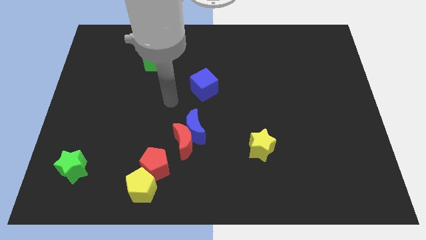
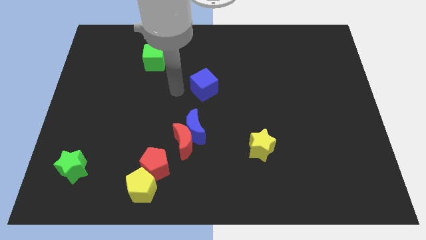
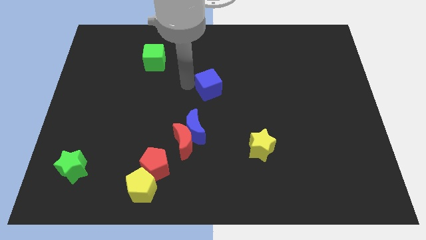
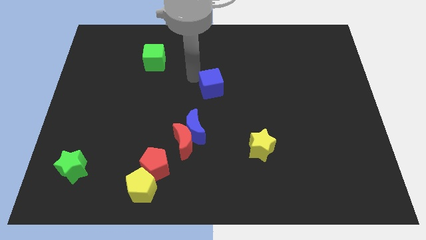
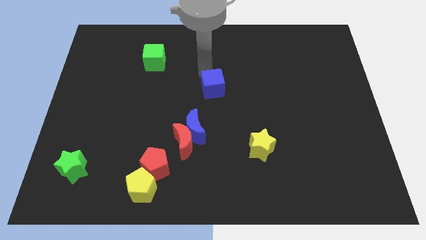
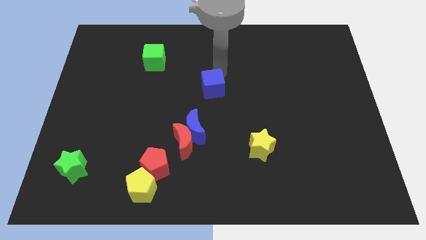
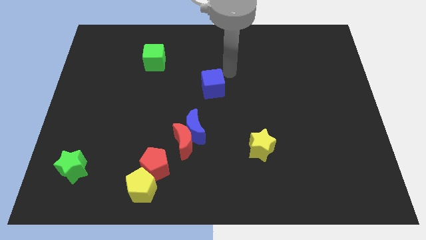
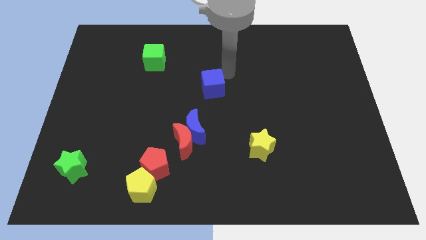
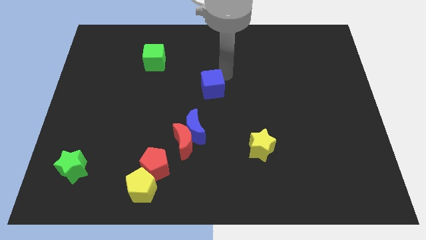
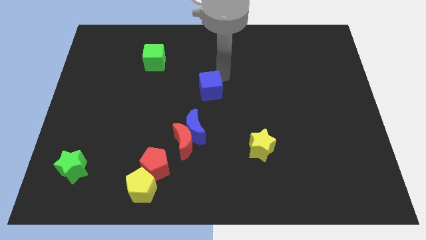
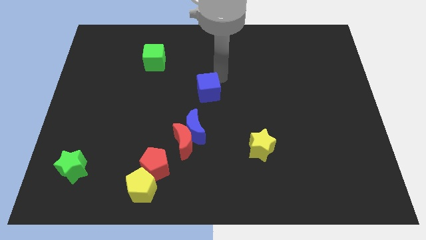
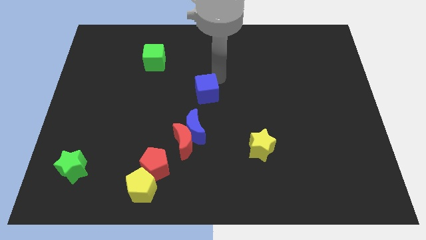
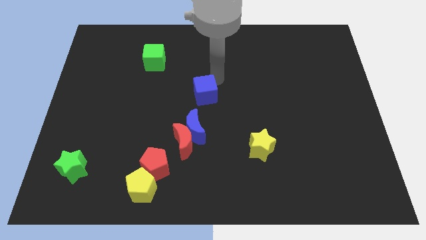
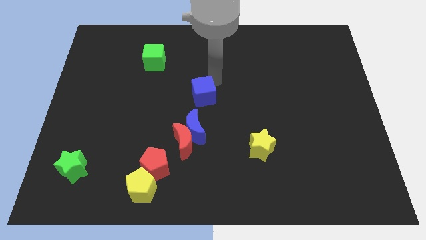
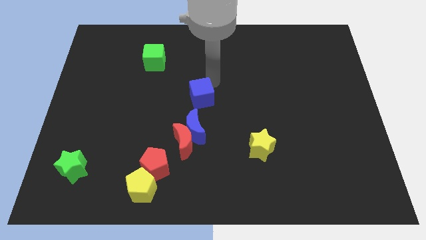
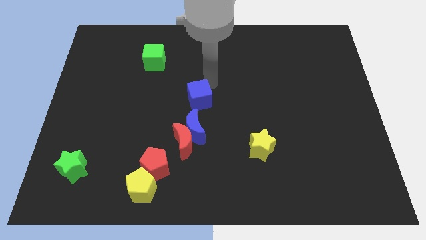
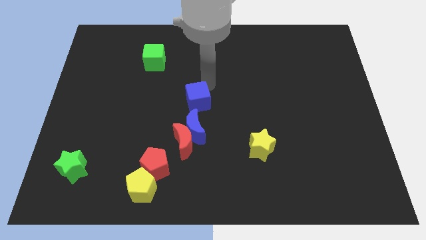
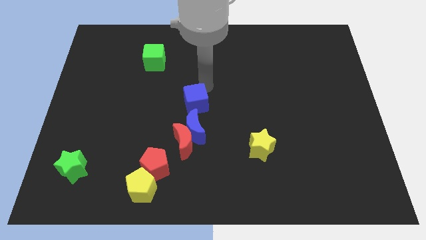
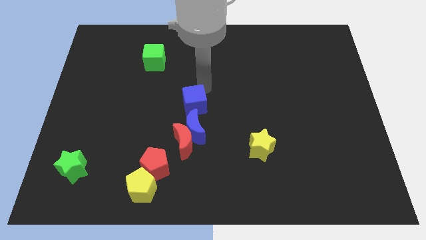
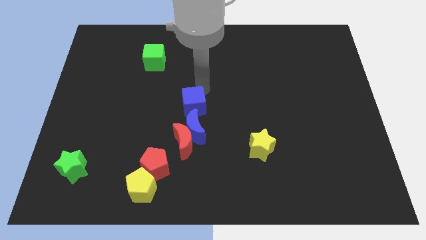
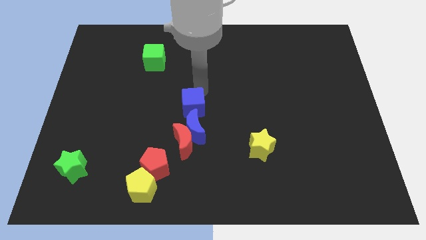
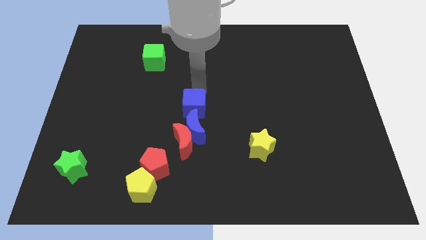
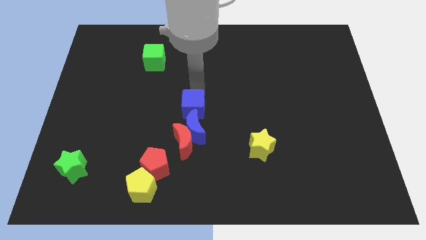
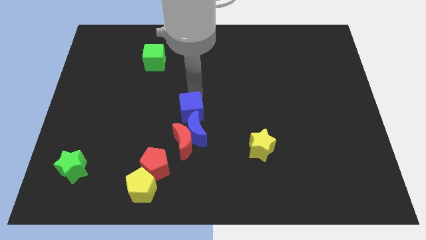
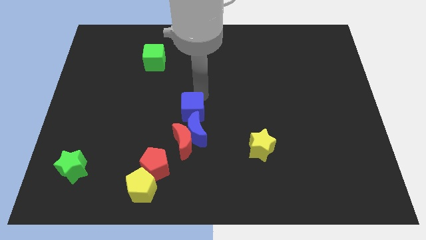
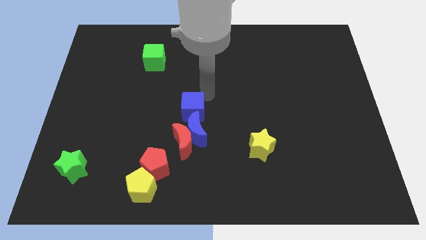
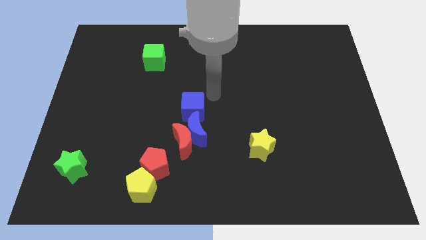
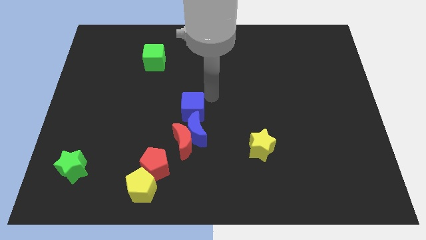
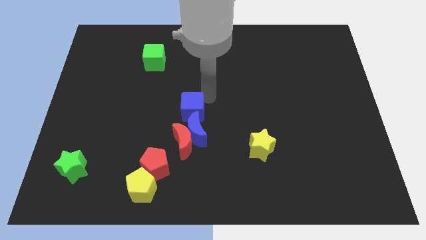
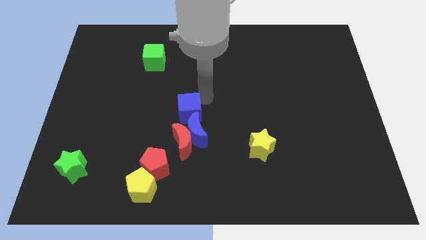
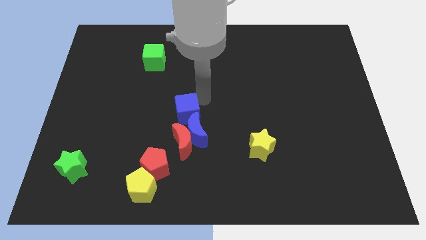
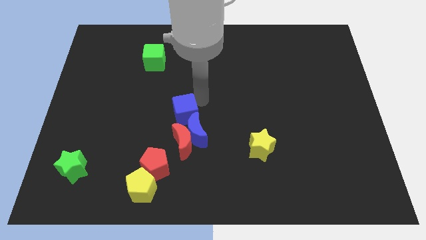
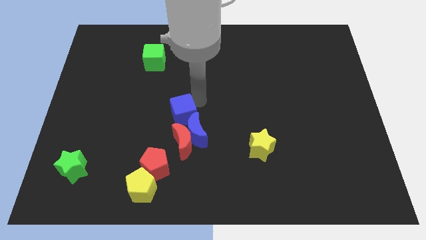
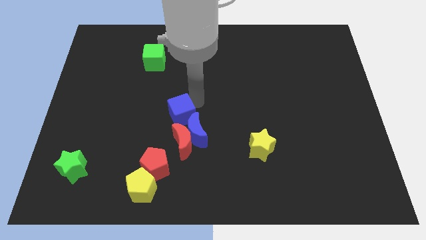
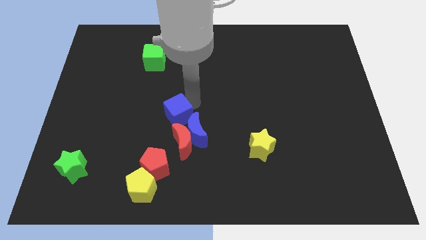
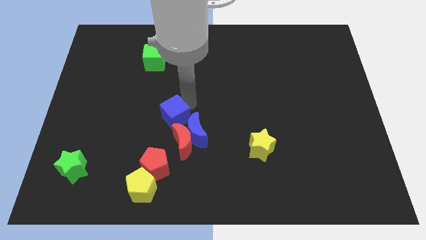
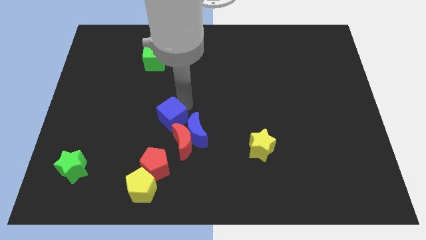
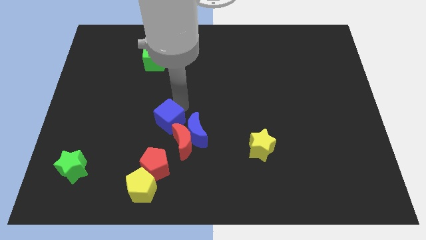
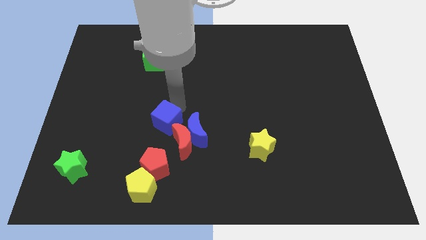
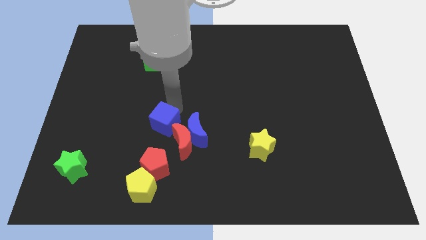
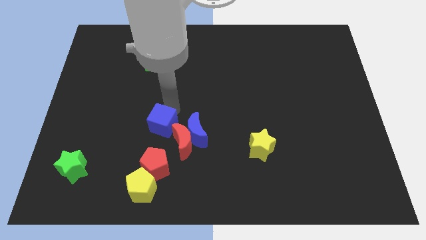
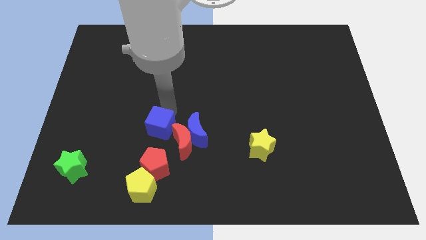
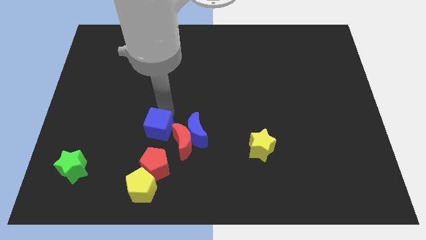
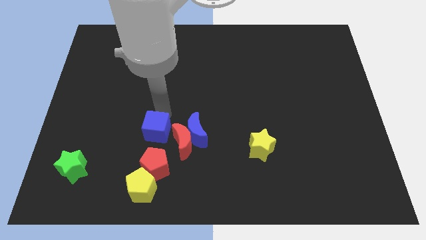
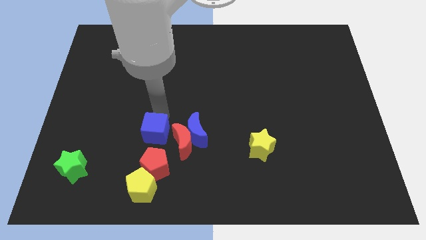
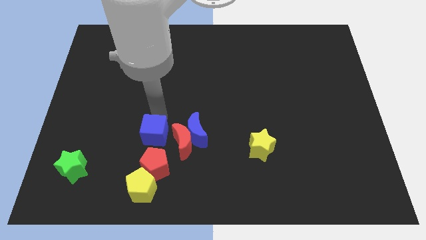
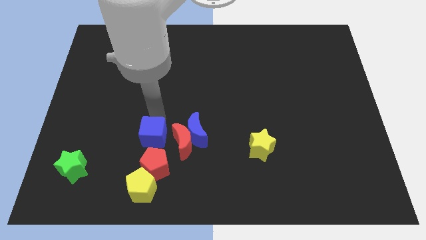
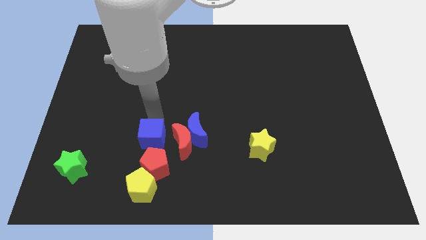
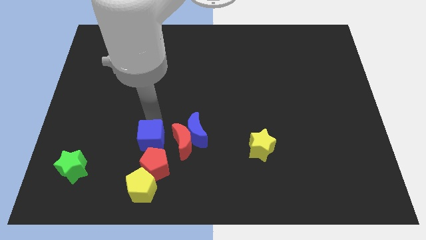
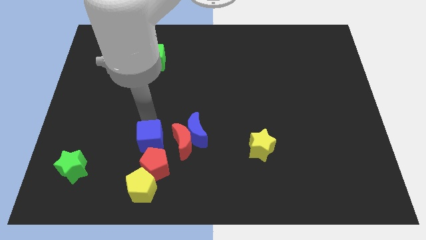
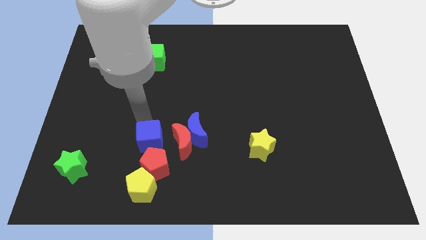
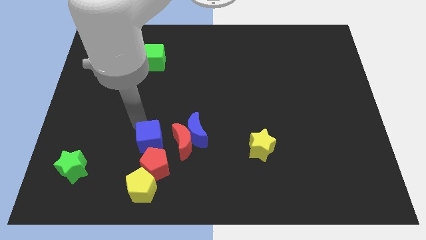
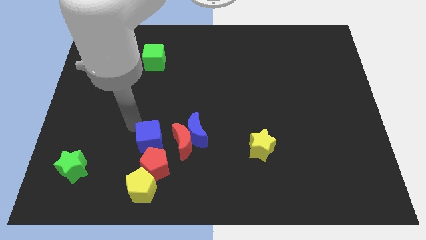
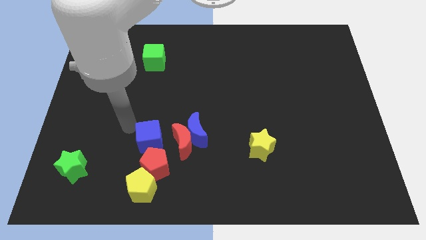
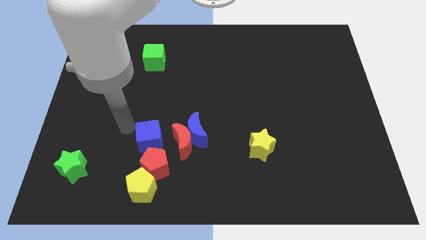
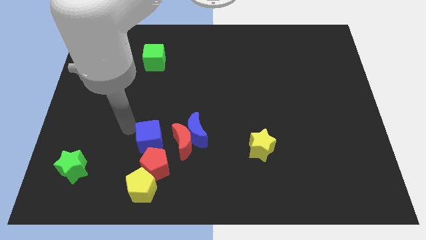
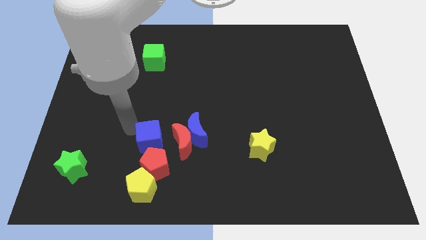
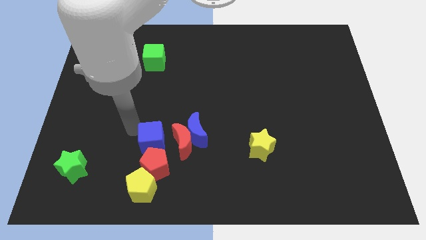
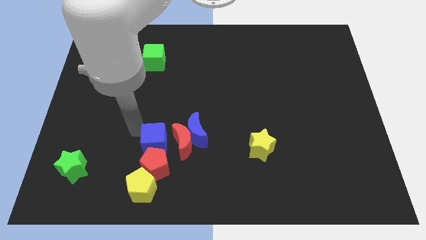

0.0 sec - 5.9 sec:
push the blue cube next to the red pentagon

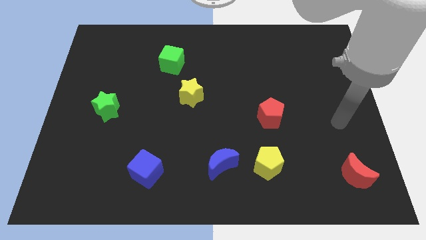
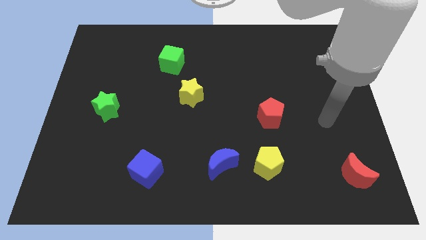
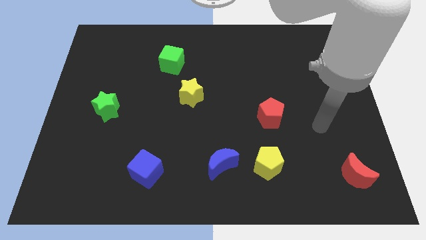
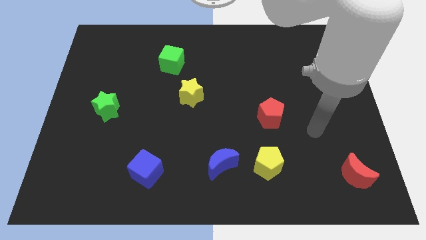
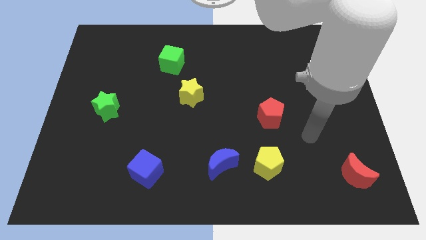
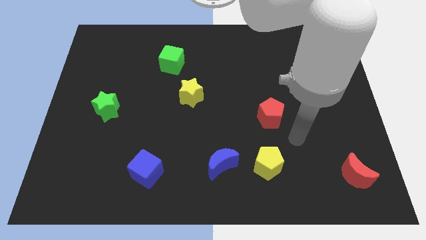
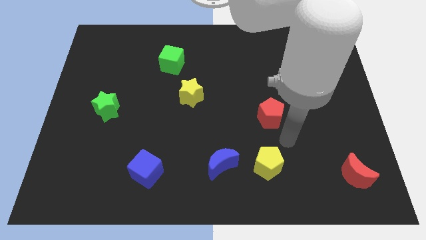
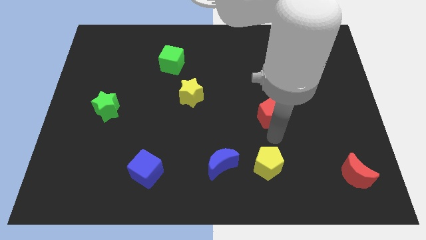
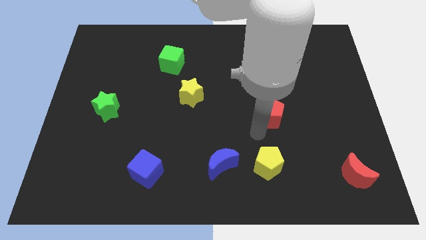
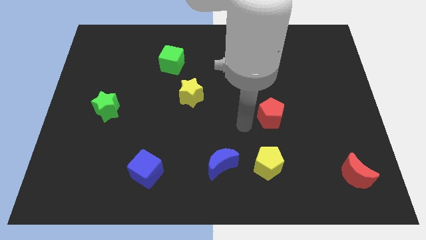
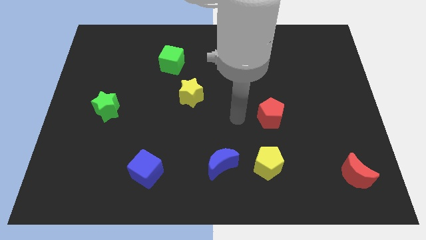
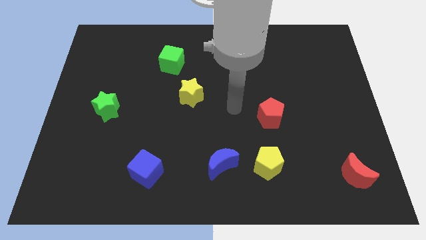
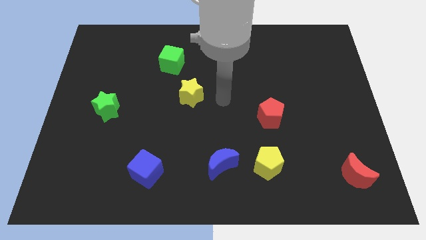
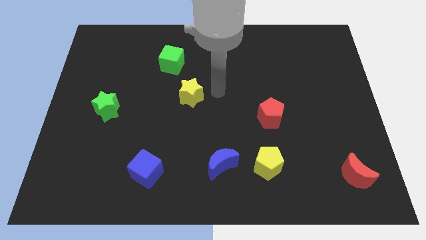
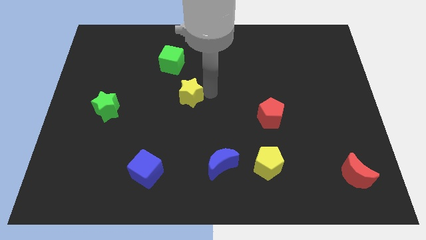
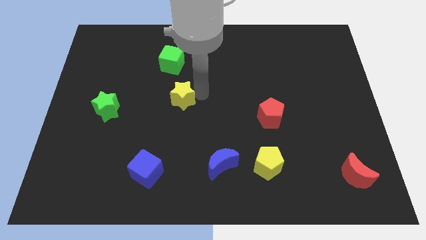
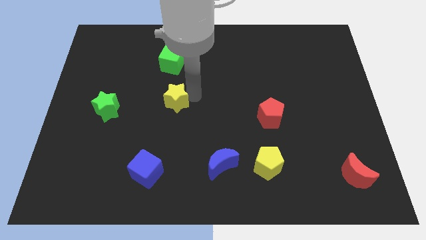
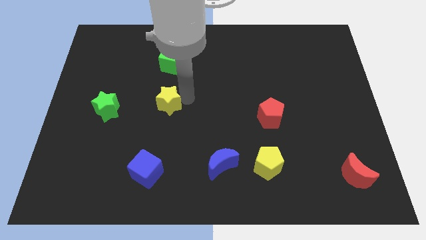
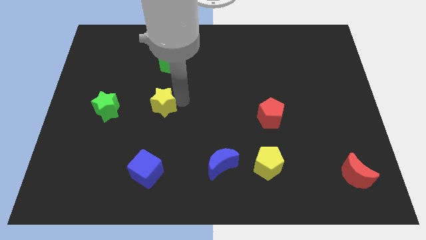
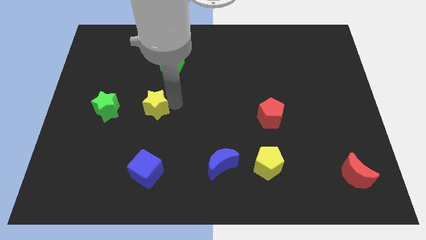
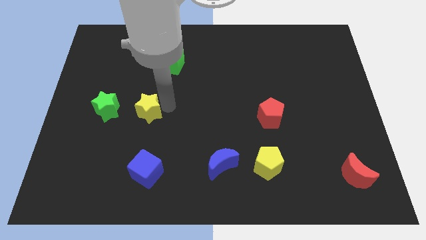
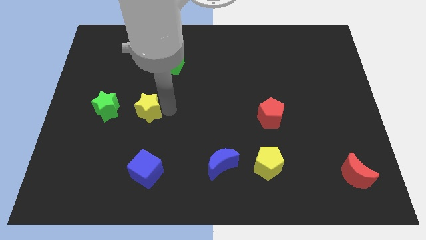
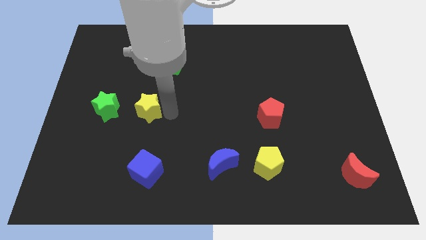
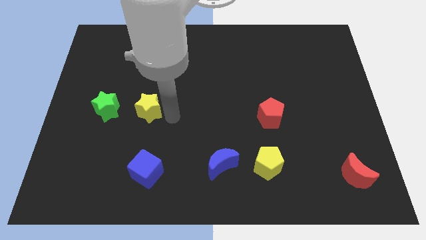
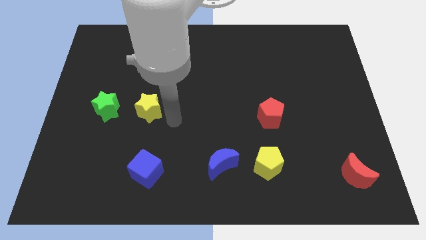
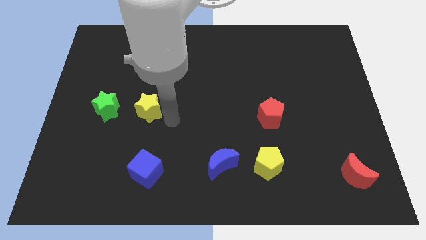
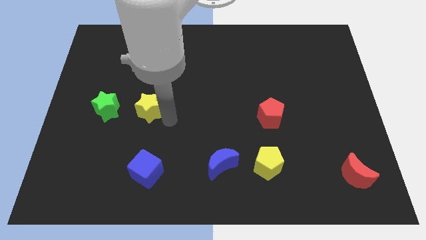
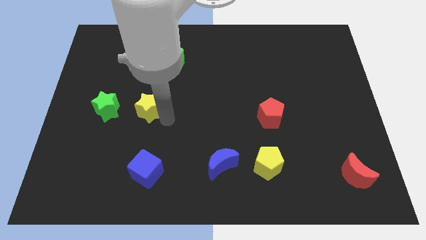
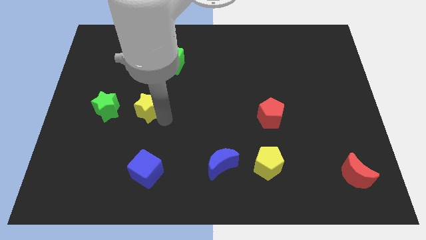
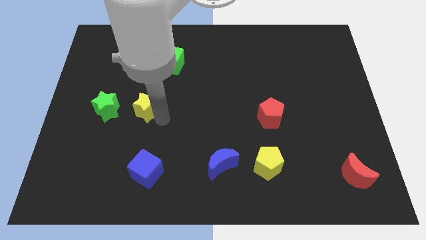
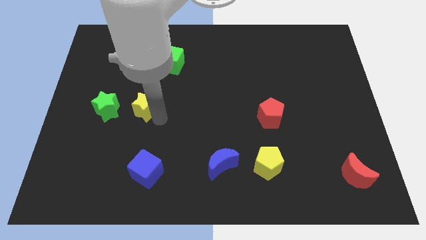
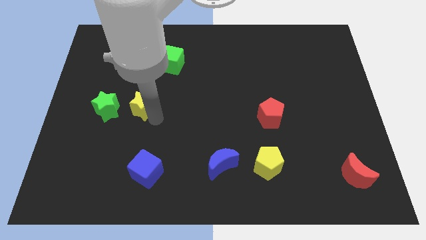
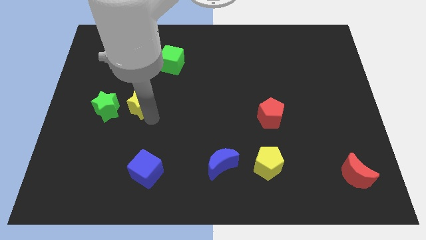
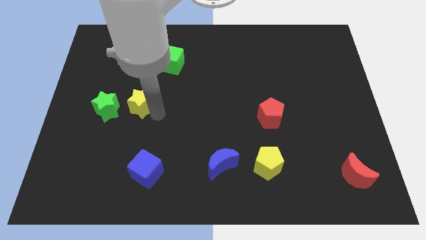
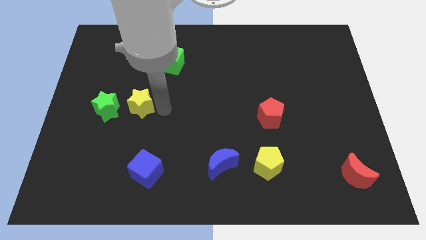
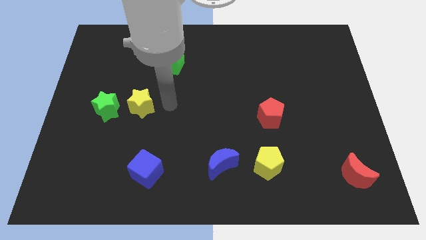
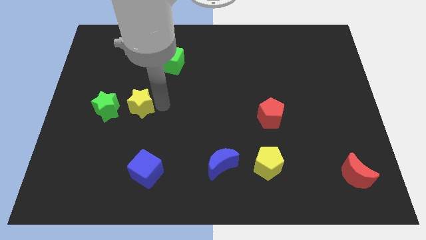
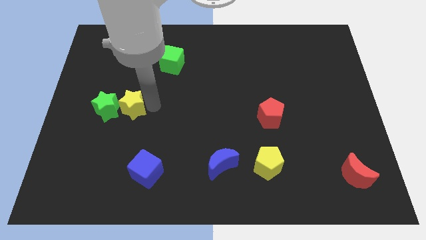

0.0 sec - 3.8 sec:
put the yellow star next to the green star
